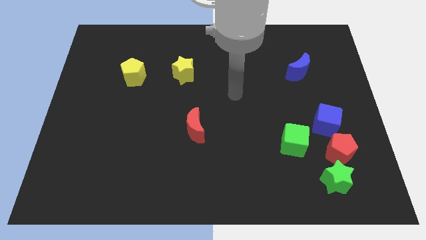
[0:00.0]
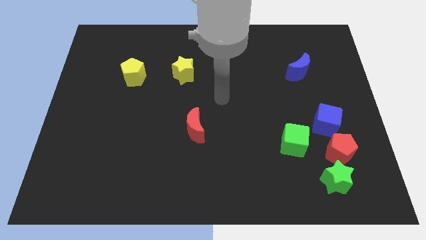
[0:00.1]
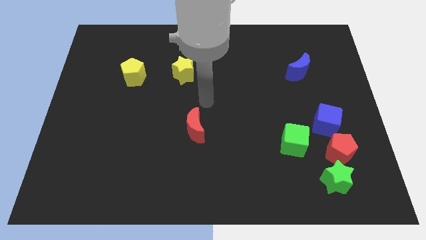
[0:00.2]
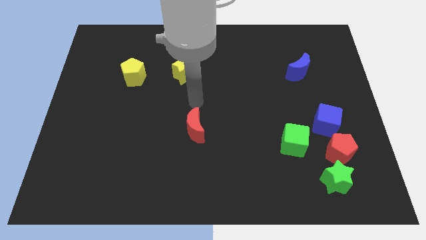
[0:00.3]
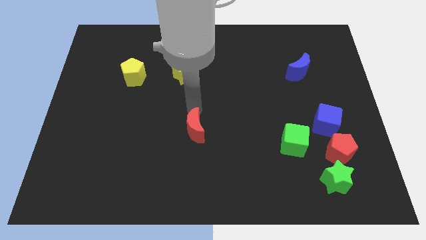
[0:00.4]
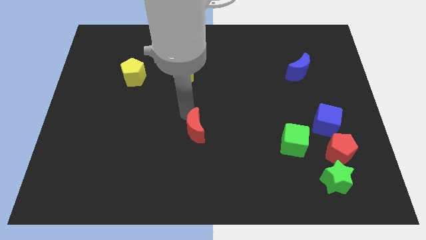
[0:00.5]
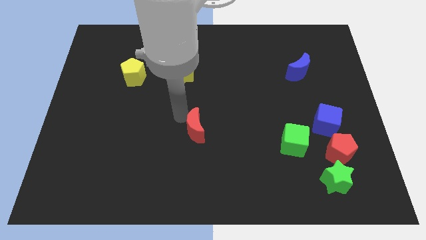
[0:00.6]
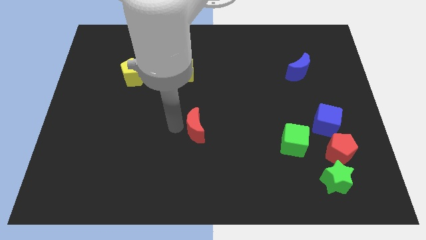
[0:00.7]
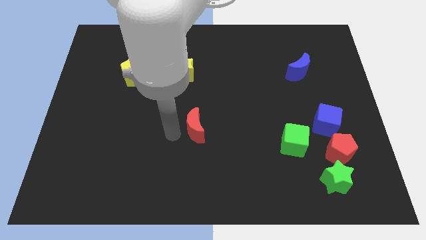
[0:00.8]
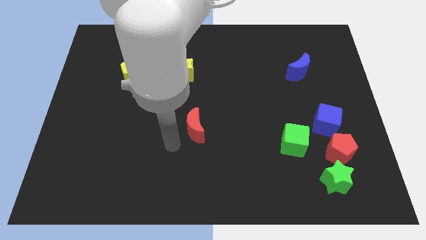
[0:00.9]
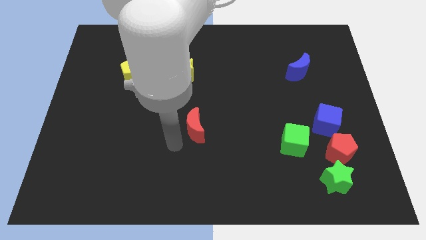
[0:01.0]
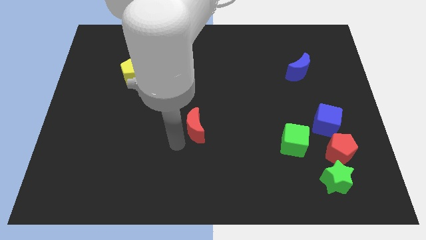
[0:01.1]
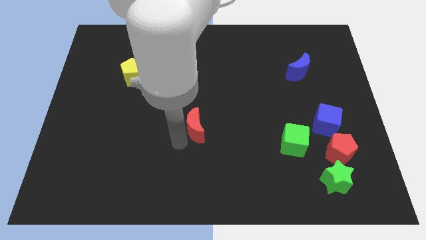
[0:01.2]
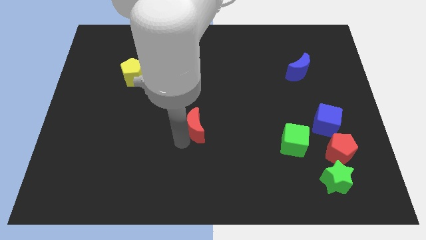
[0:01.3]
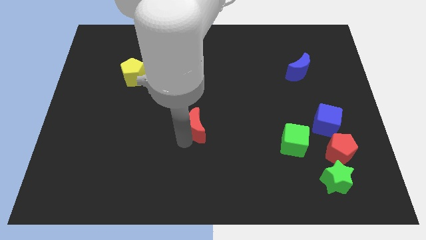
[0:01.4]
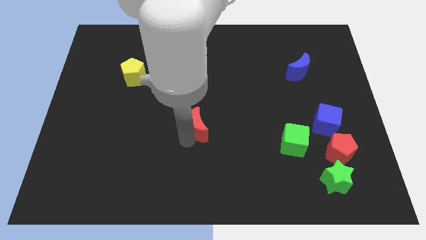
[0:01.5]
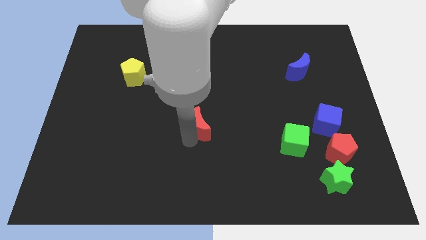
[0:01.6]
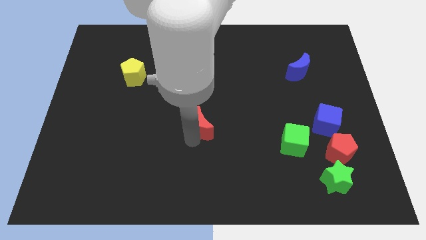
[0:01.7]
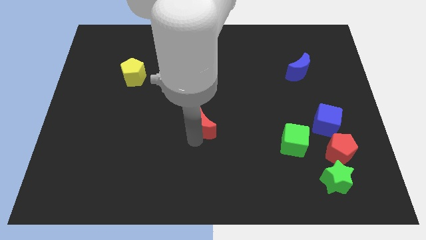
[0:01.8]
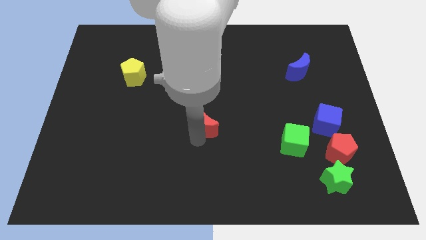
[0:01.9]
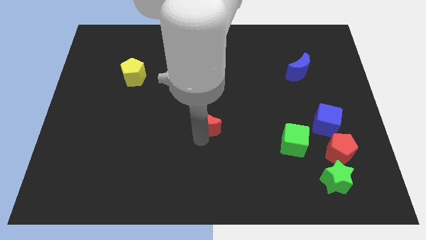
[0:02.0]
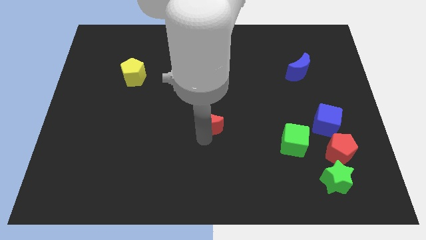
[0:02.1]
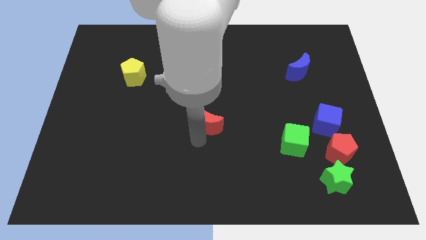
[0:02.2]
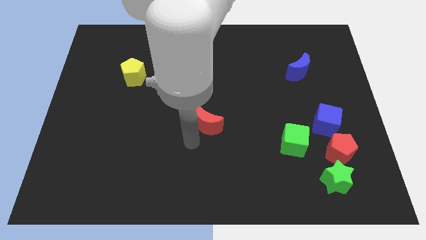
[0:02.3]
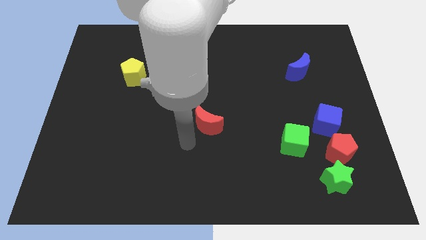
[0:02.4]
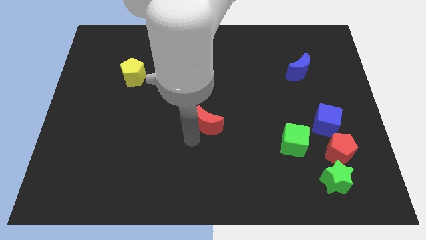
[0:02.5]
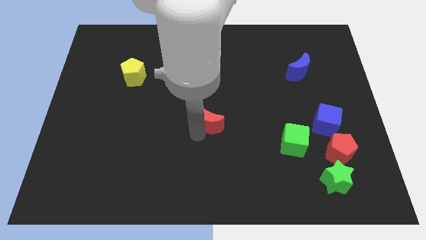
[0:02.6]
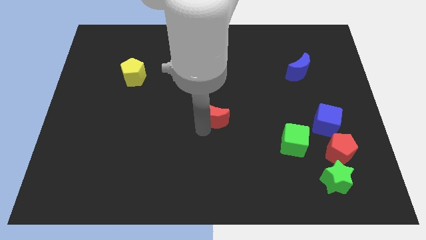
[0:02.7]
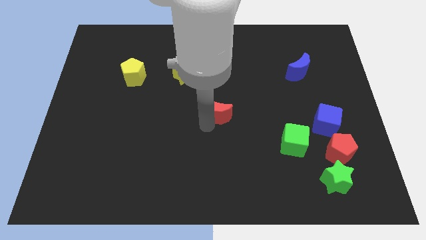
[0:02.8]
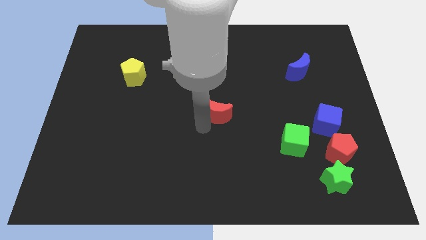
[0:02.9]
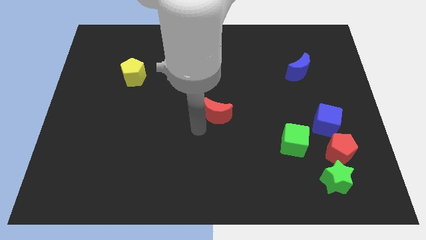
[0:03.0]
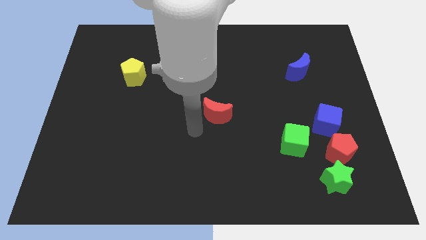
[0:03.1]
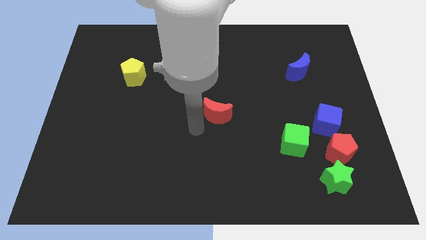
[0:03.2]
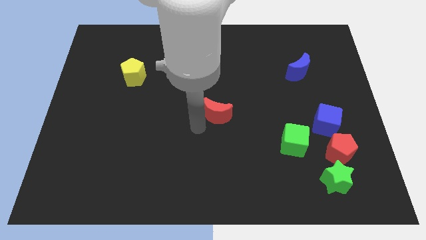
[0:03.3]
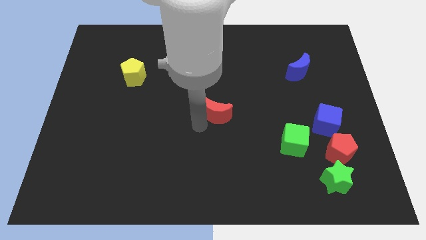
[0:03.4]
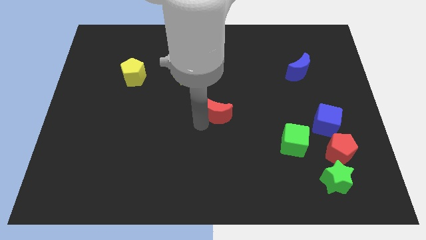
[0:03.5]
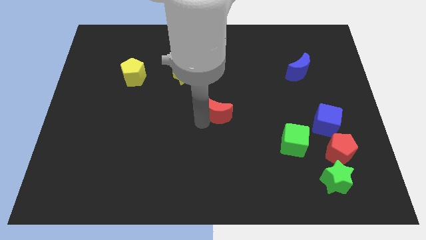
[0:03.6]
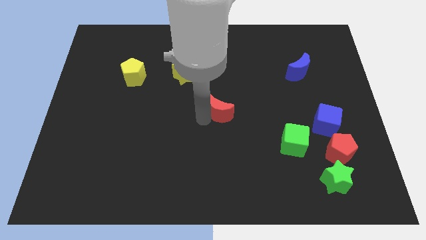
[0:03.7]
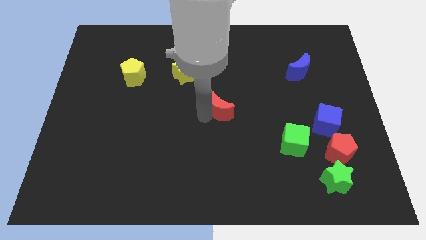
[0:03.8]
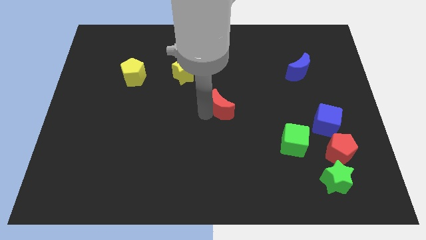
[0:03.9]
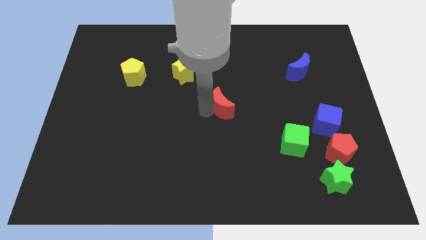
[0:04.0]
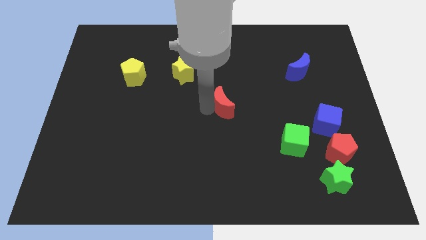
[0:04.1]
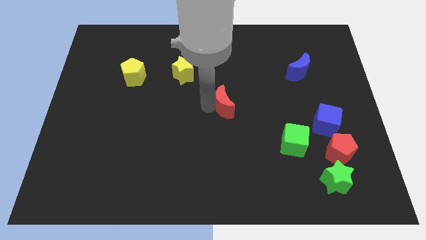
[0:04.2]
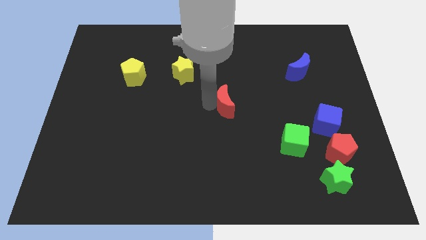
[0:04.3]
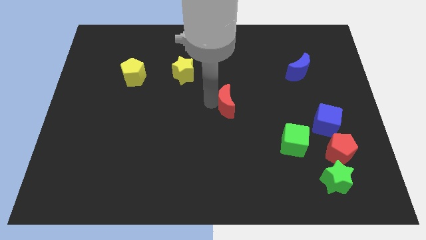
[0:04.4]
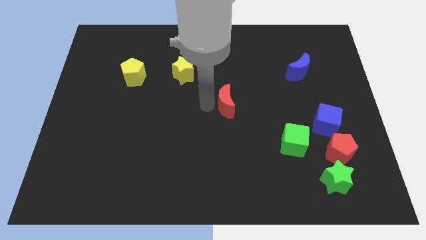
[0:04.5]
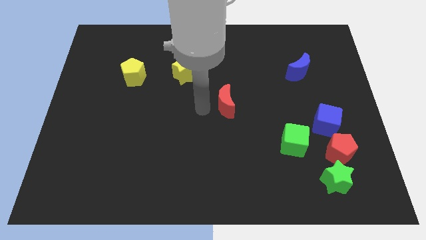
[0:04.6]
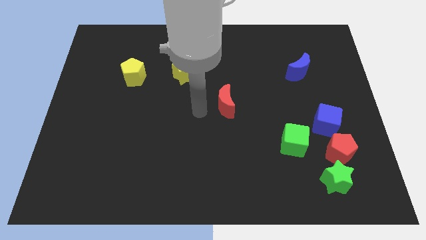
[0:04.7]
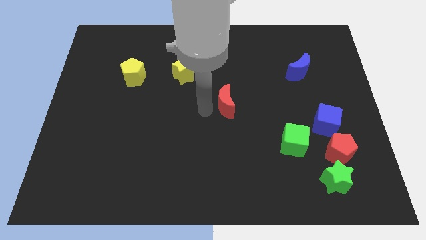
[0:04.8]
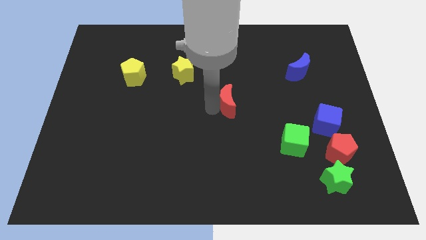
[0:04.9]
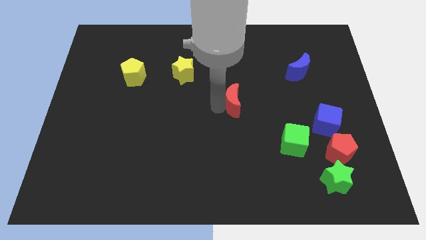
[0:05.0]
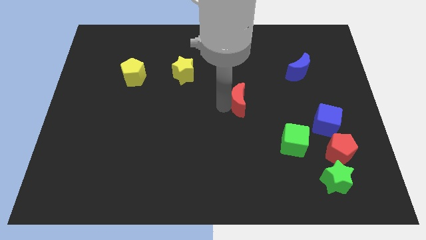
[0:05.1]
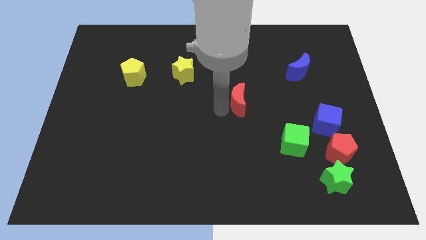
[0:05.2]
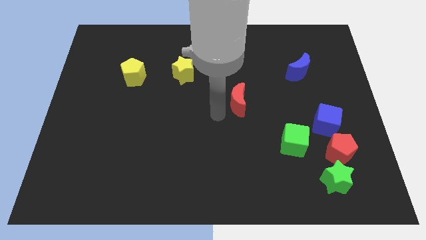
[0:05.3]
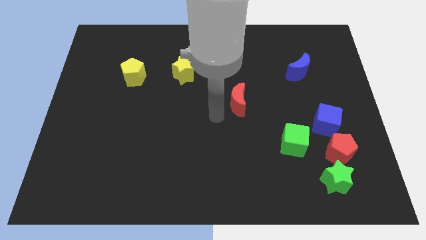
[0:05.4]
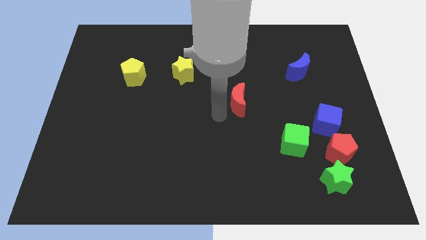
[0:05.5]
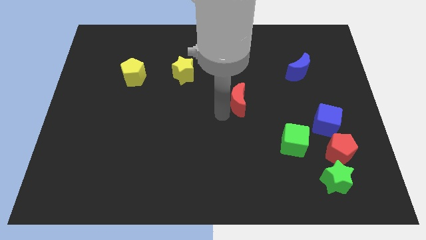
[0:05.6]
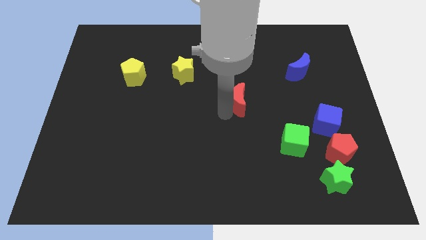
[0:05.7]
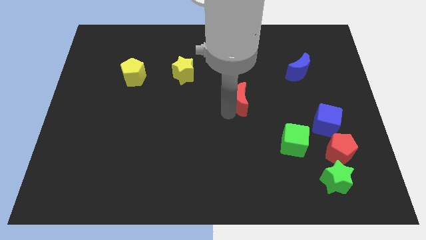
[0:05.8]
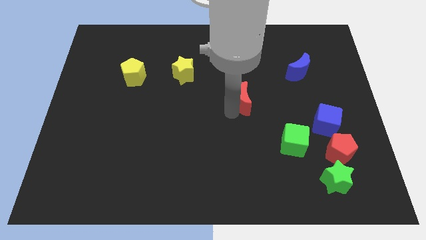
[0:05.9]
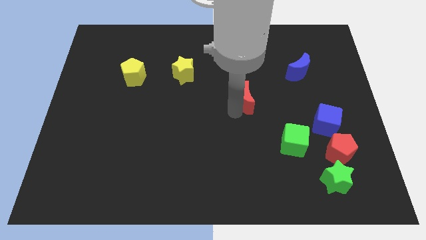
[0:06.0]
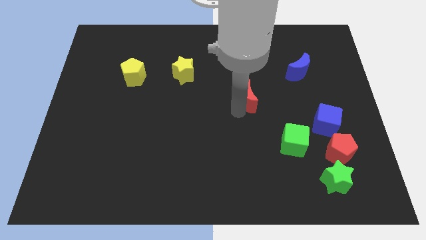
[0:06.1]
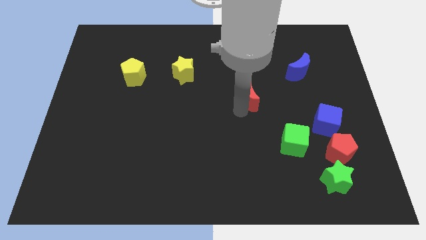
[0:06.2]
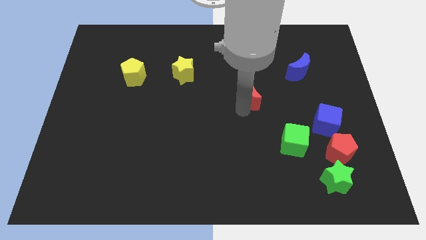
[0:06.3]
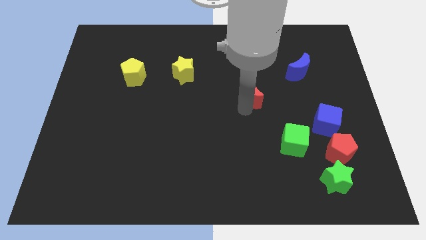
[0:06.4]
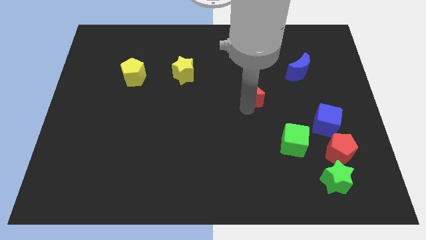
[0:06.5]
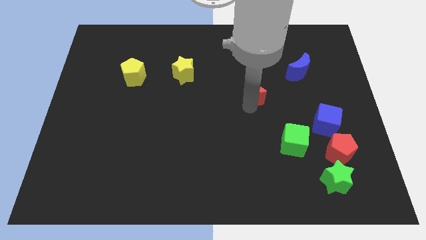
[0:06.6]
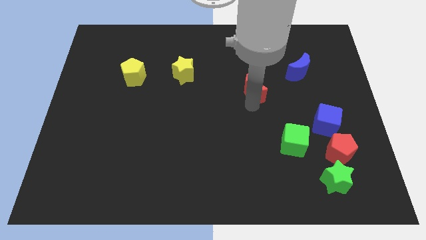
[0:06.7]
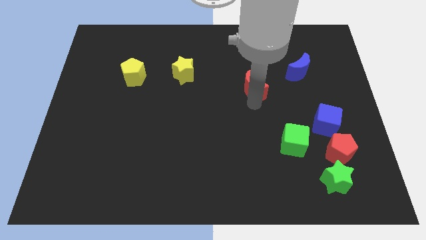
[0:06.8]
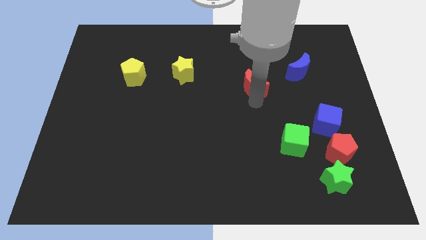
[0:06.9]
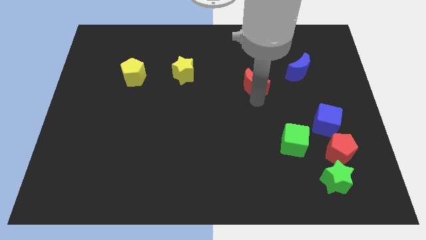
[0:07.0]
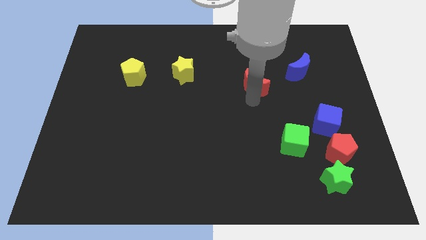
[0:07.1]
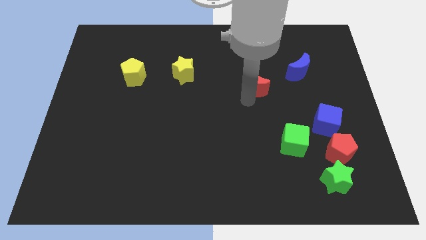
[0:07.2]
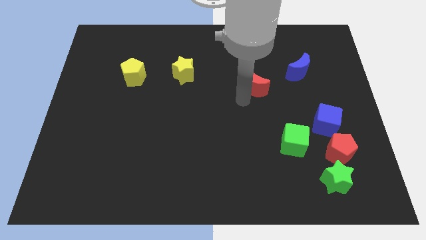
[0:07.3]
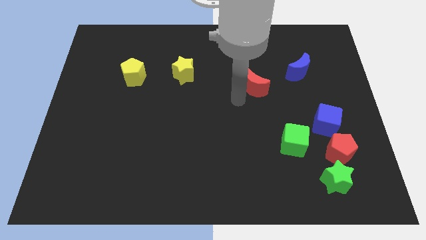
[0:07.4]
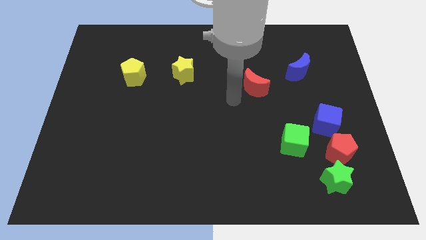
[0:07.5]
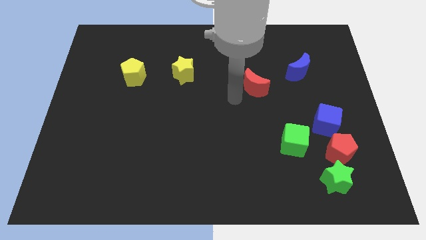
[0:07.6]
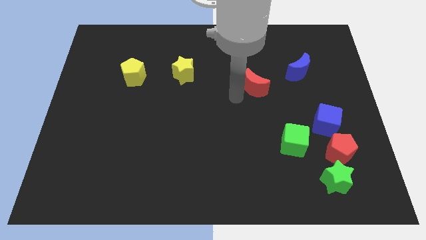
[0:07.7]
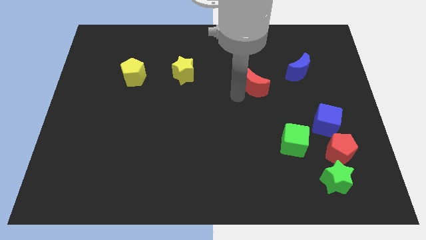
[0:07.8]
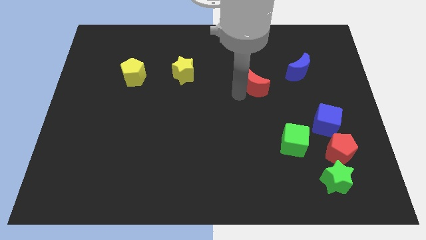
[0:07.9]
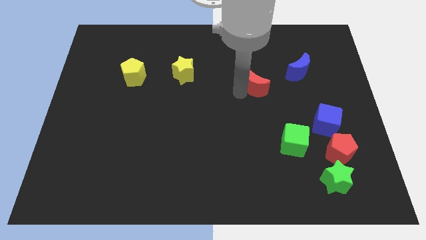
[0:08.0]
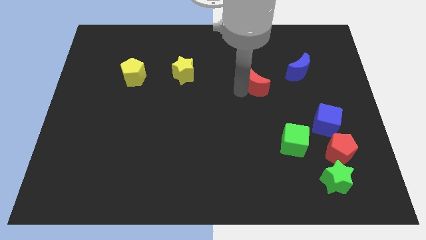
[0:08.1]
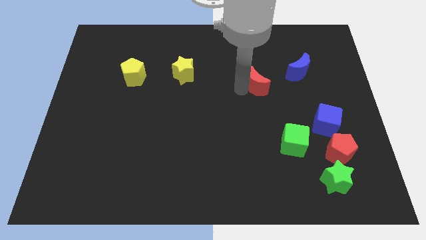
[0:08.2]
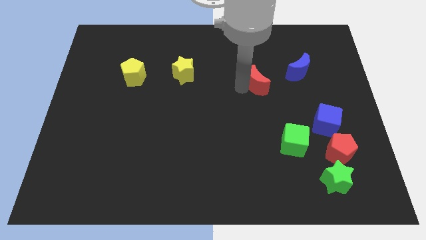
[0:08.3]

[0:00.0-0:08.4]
slide the red moon upwards and then to the right
